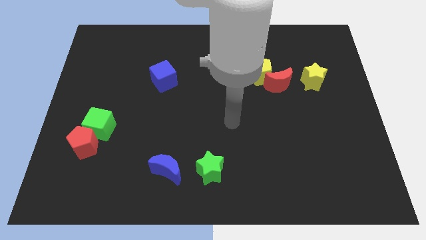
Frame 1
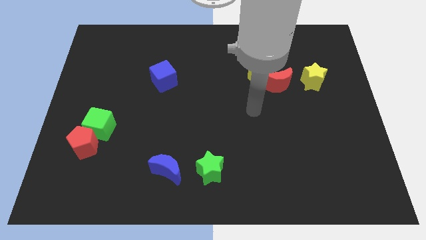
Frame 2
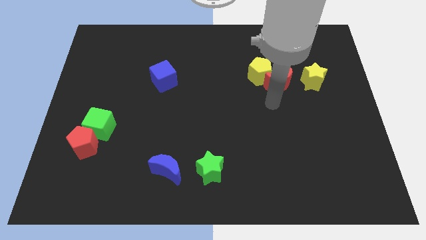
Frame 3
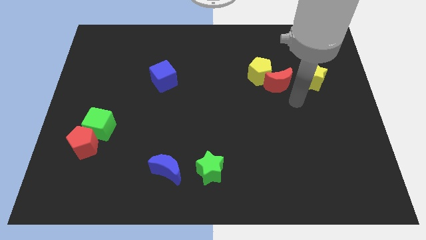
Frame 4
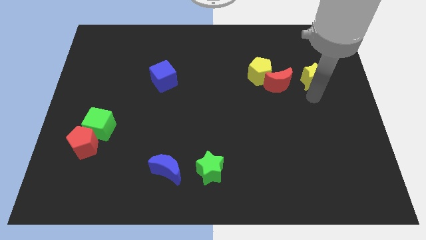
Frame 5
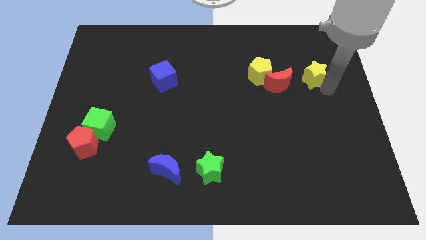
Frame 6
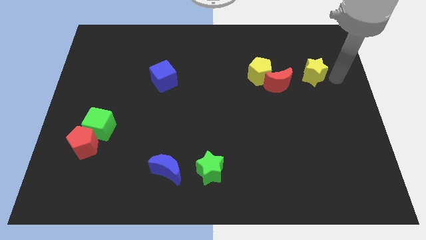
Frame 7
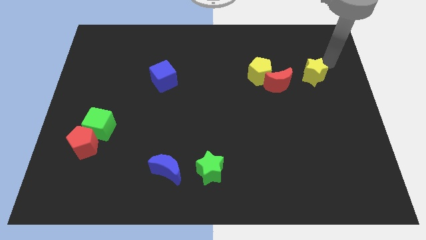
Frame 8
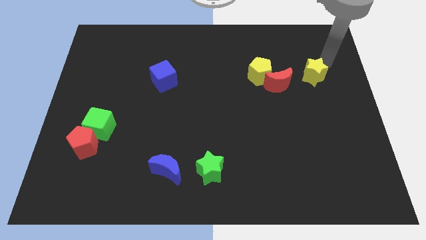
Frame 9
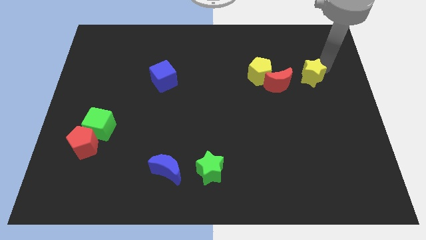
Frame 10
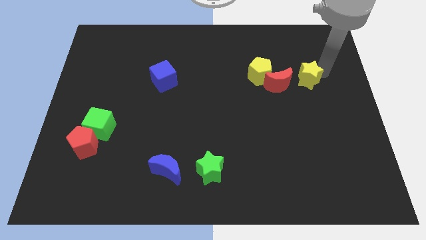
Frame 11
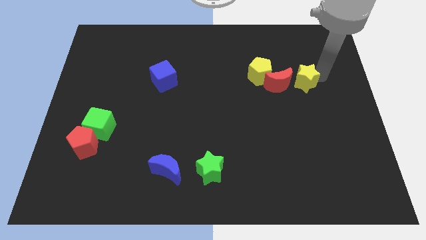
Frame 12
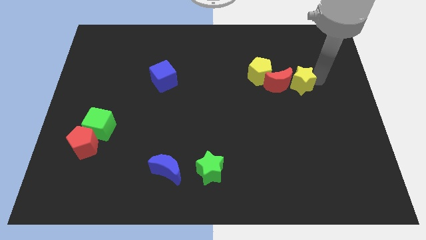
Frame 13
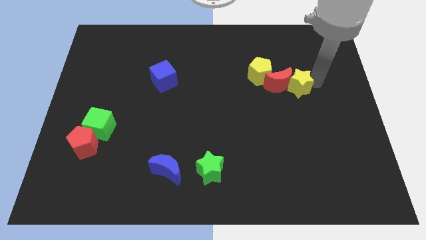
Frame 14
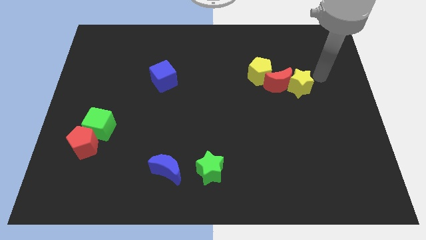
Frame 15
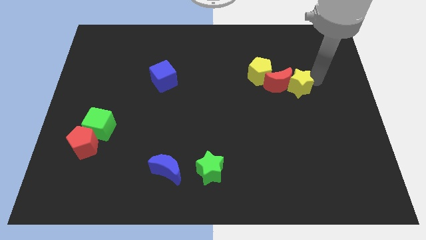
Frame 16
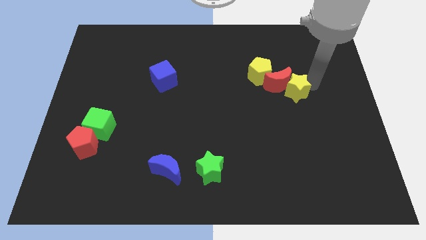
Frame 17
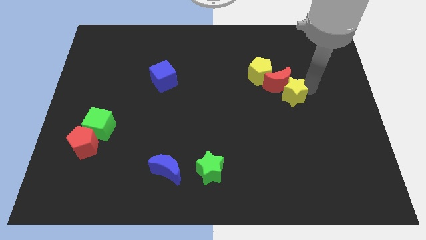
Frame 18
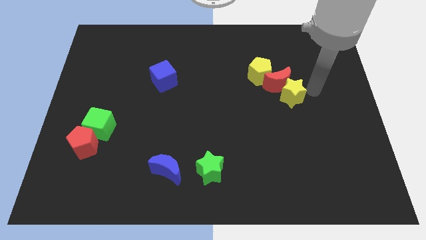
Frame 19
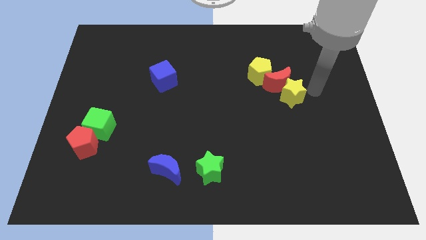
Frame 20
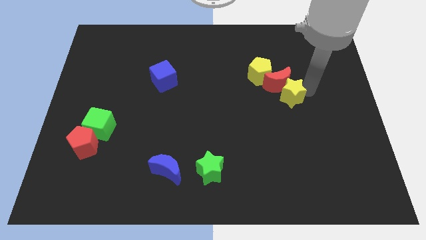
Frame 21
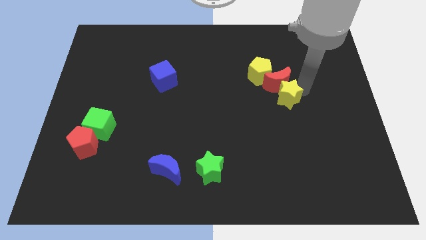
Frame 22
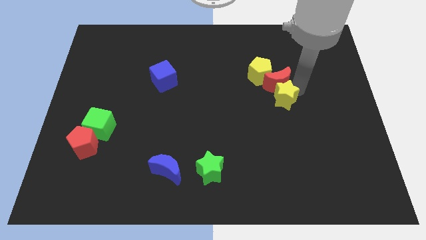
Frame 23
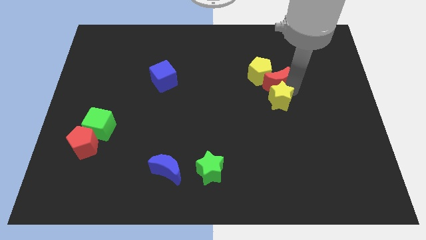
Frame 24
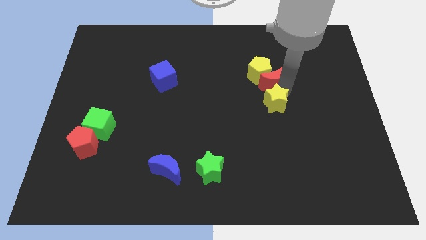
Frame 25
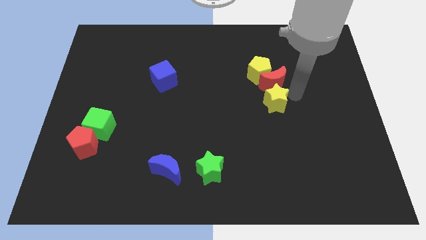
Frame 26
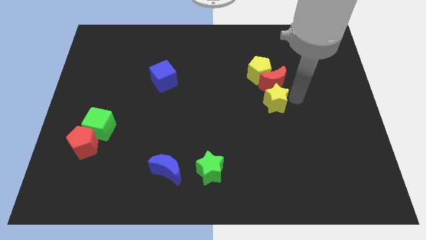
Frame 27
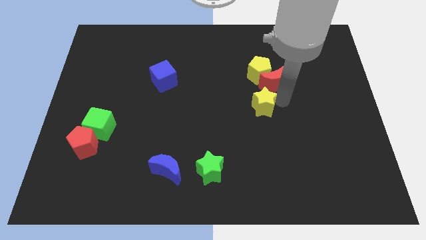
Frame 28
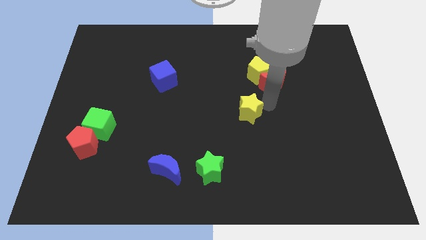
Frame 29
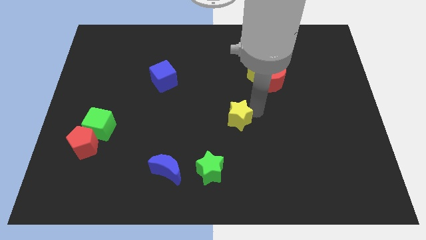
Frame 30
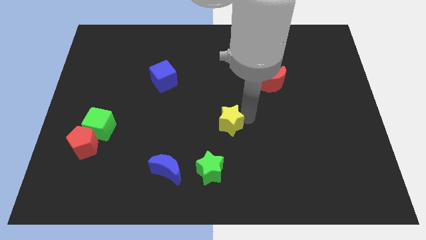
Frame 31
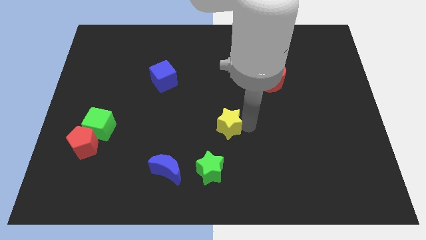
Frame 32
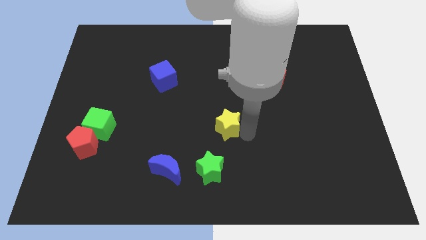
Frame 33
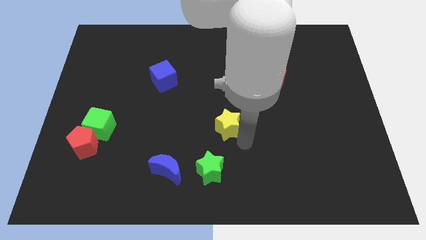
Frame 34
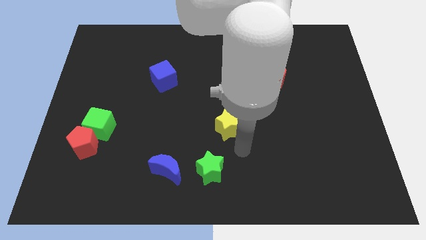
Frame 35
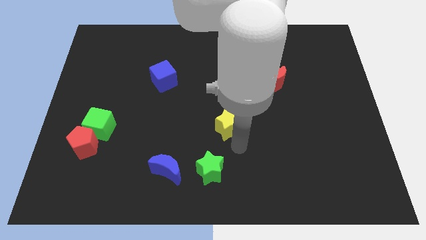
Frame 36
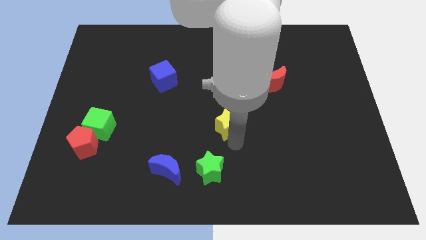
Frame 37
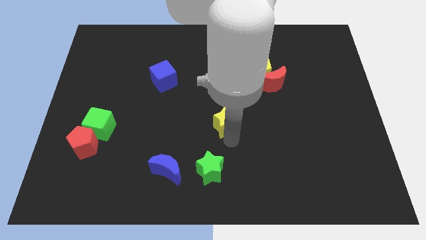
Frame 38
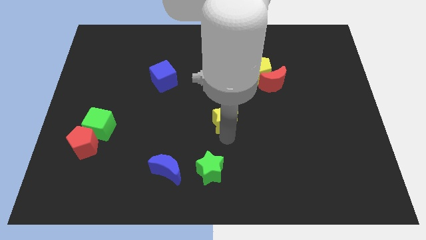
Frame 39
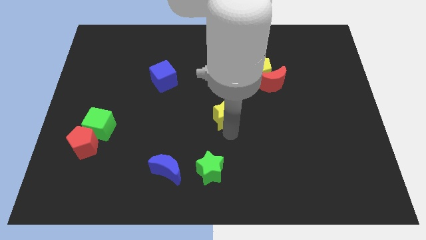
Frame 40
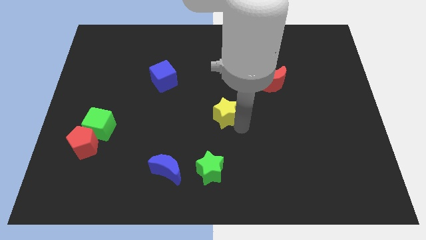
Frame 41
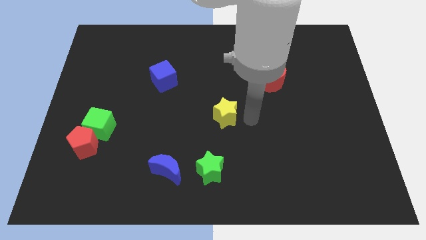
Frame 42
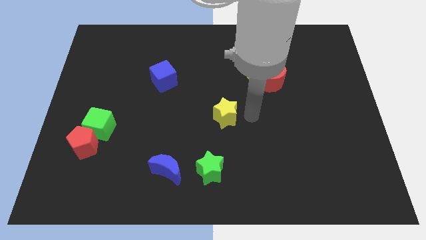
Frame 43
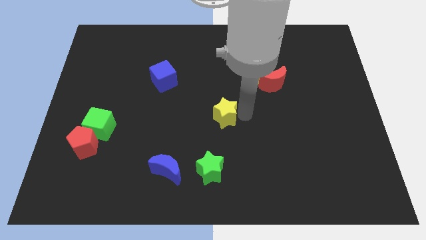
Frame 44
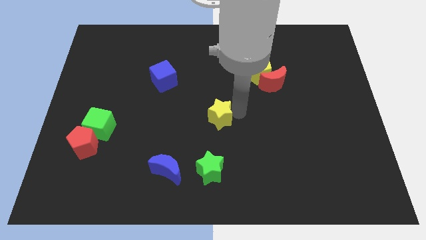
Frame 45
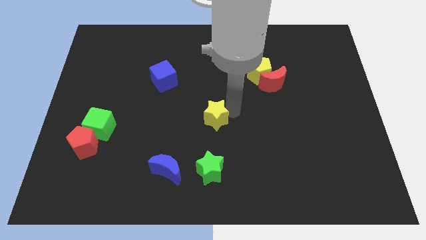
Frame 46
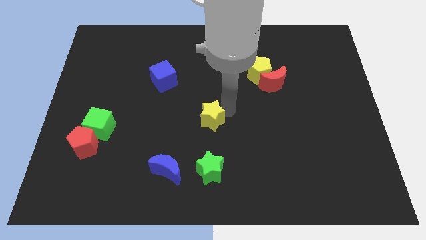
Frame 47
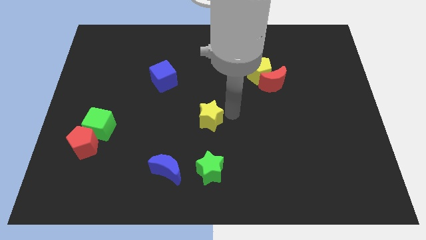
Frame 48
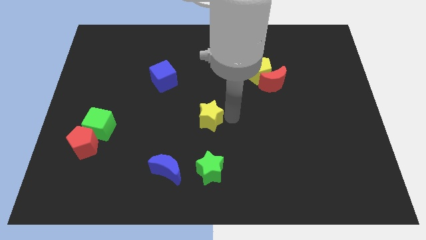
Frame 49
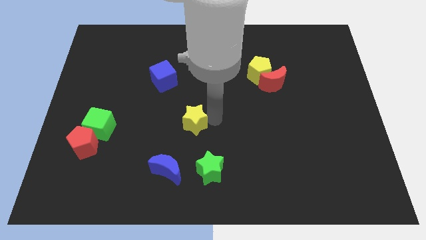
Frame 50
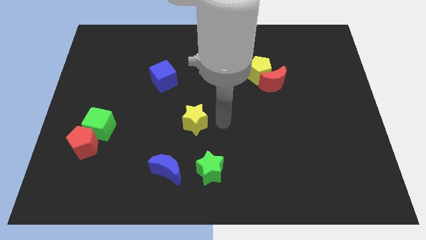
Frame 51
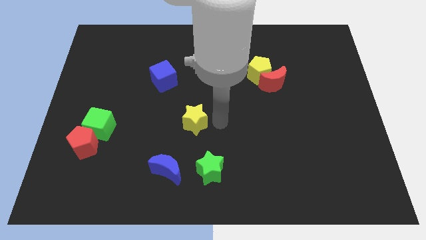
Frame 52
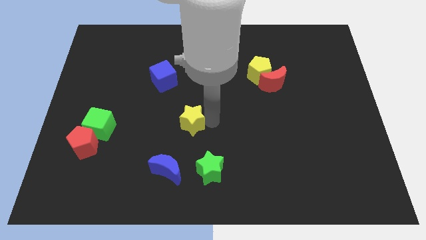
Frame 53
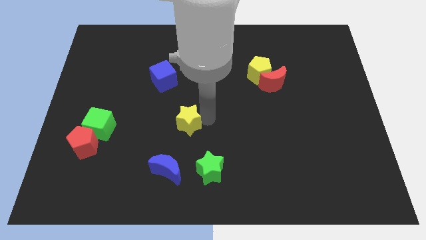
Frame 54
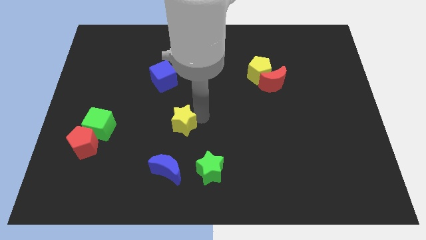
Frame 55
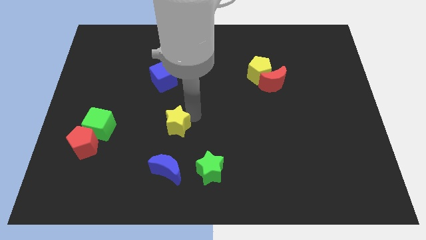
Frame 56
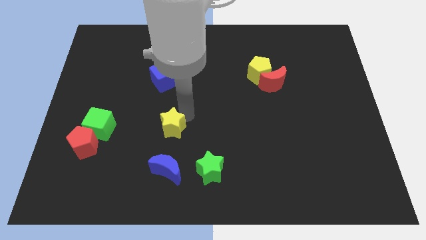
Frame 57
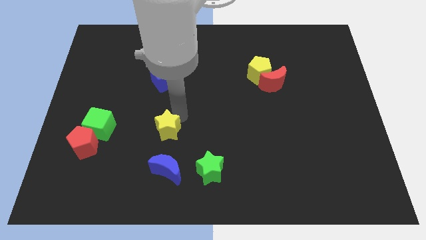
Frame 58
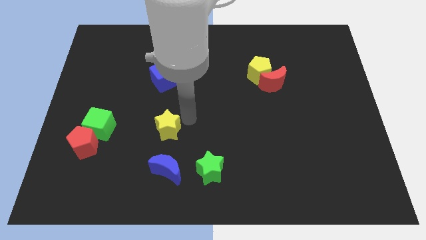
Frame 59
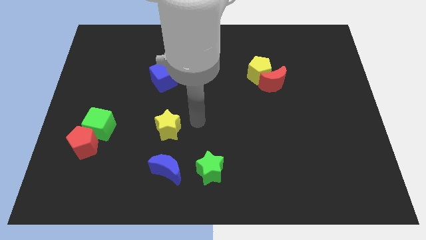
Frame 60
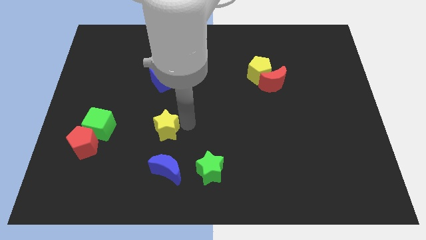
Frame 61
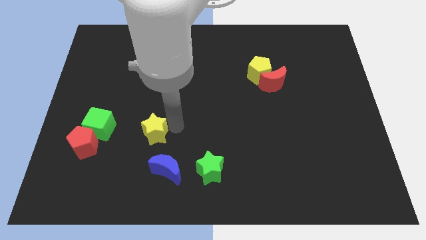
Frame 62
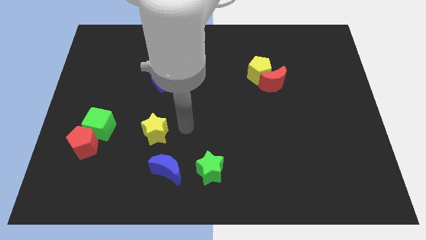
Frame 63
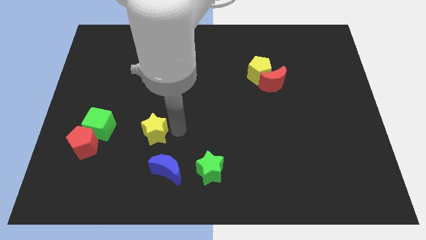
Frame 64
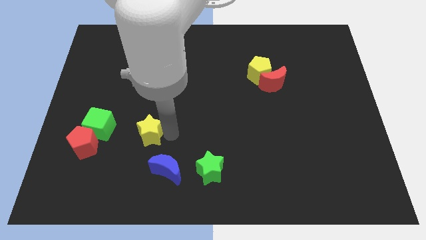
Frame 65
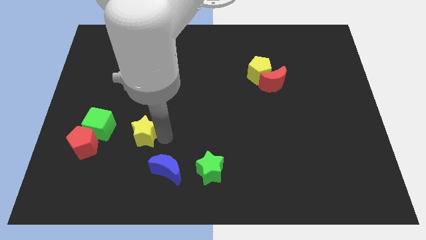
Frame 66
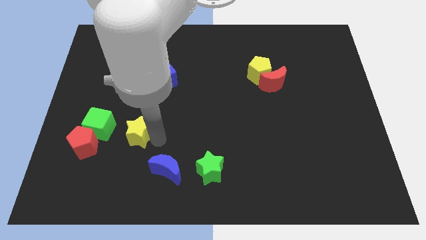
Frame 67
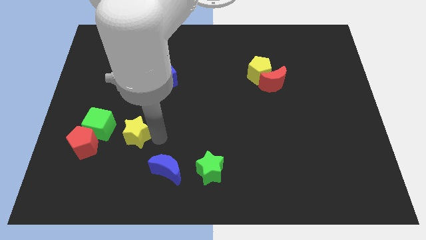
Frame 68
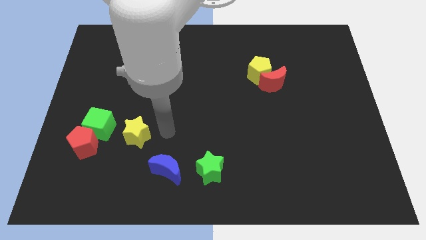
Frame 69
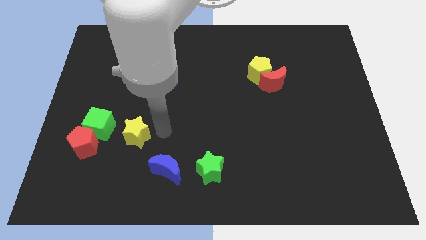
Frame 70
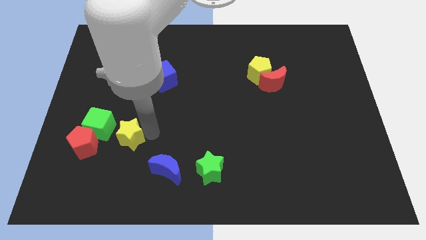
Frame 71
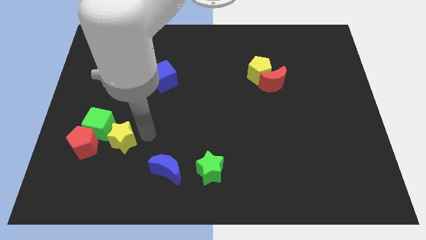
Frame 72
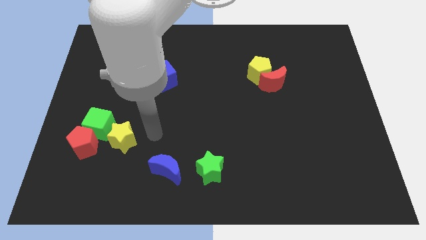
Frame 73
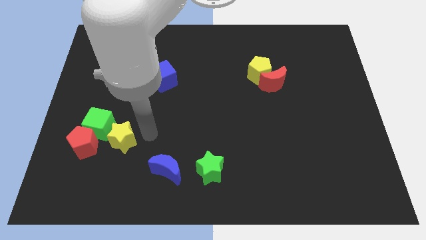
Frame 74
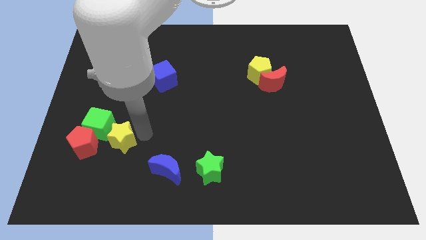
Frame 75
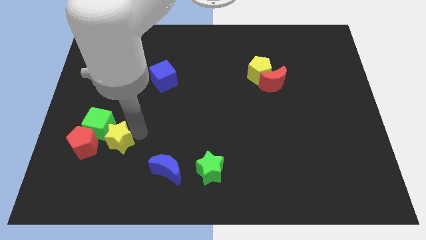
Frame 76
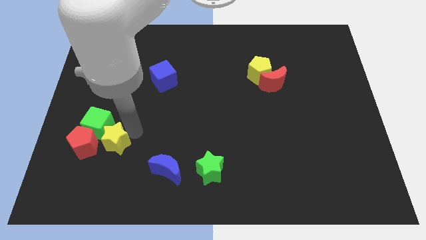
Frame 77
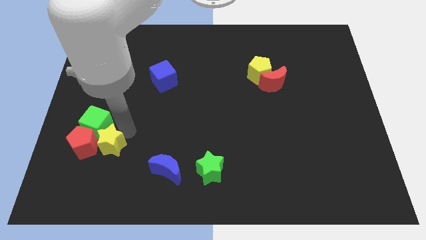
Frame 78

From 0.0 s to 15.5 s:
move the yellow star towards the red pentagon

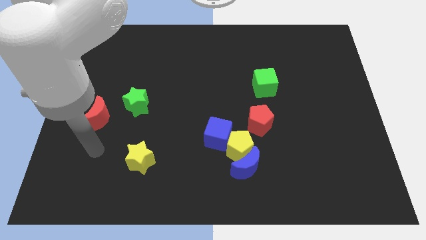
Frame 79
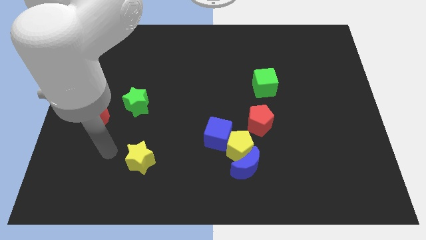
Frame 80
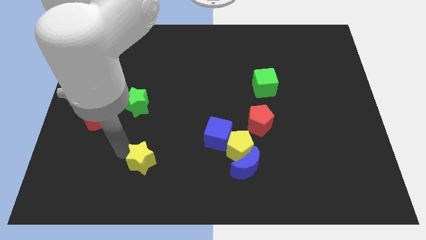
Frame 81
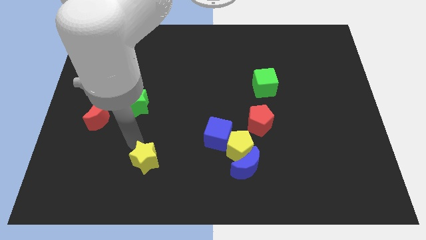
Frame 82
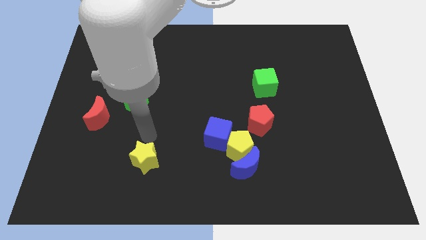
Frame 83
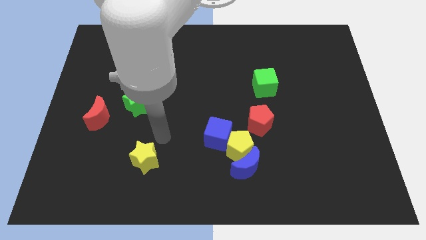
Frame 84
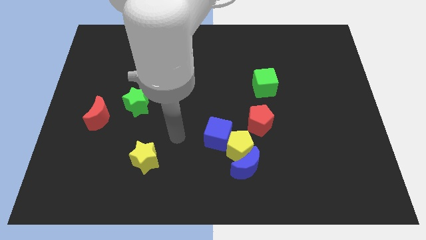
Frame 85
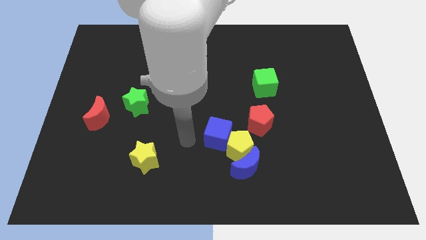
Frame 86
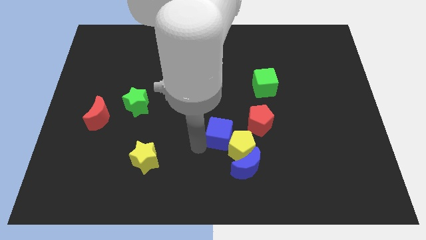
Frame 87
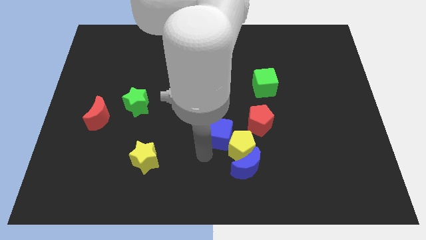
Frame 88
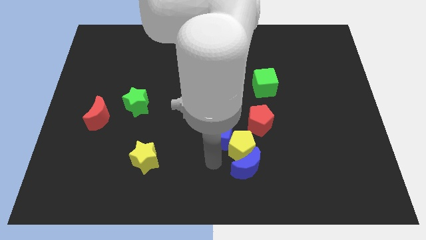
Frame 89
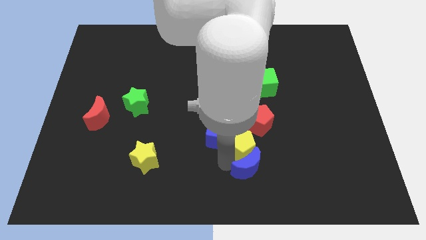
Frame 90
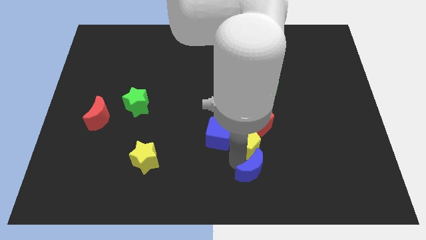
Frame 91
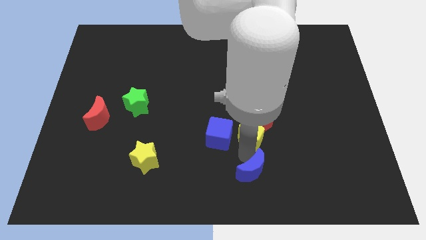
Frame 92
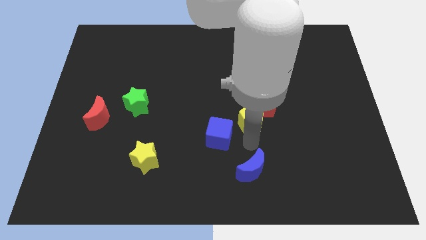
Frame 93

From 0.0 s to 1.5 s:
move the red pentagon next to the green cube
